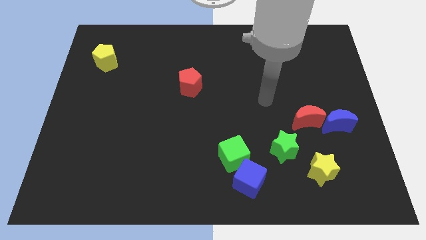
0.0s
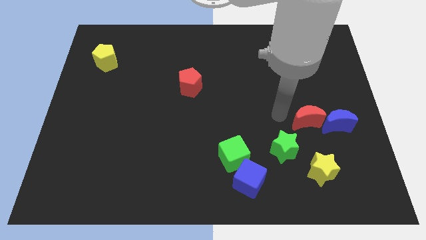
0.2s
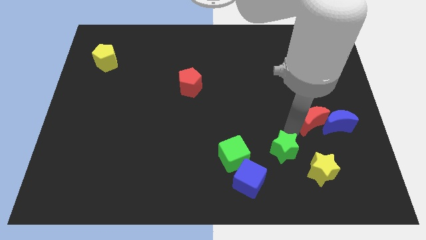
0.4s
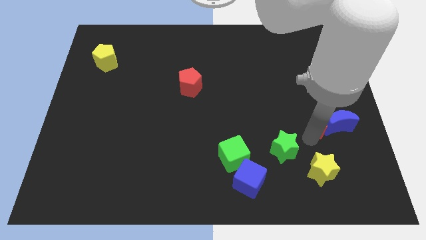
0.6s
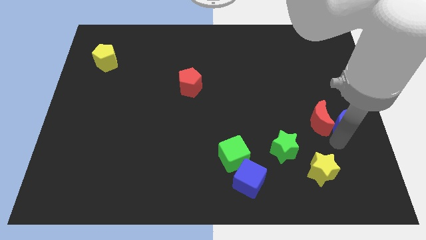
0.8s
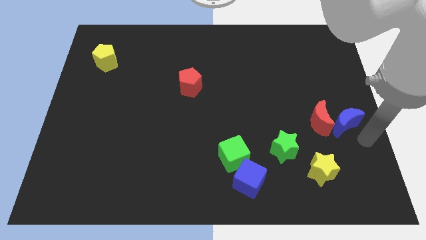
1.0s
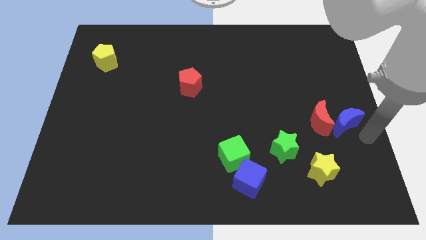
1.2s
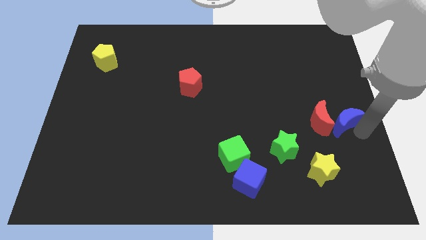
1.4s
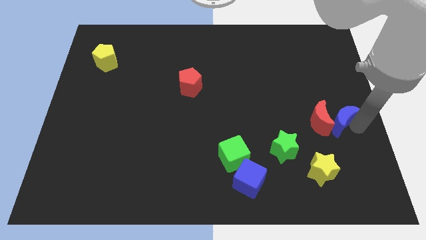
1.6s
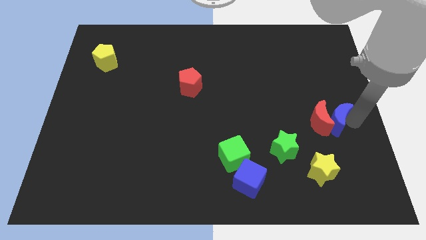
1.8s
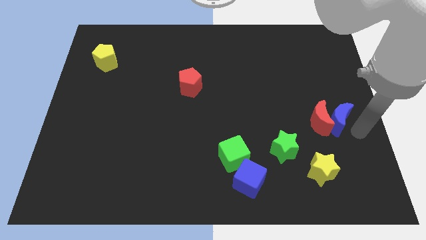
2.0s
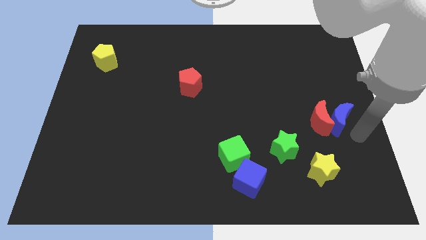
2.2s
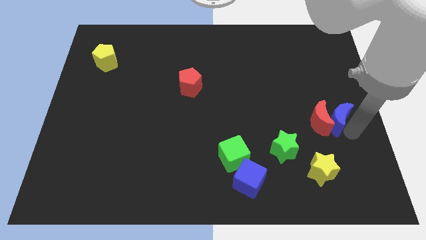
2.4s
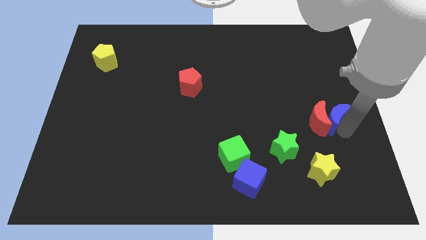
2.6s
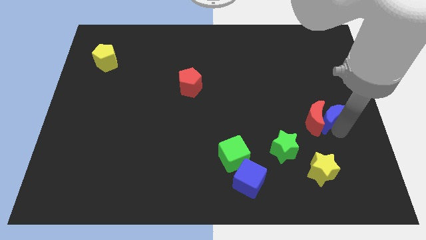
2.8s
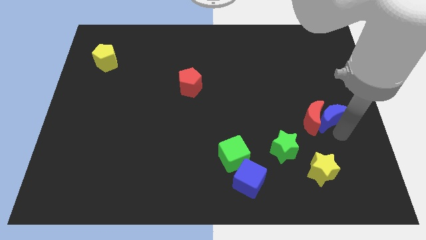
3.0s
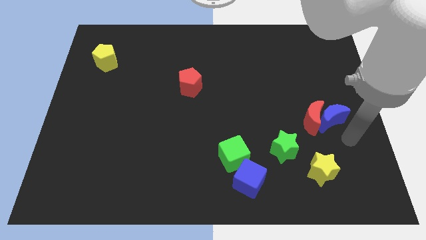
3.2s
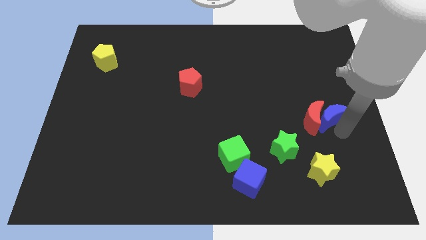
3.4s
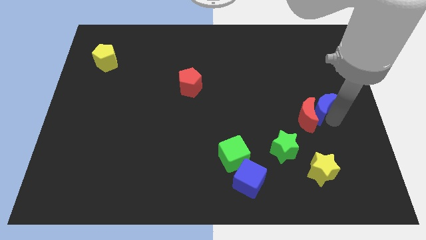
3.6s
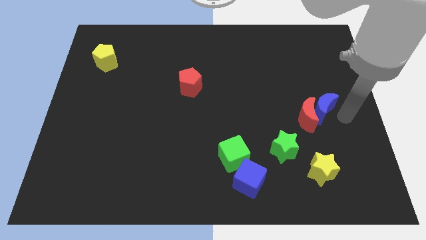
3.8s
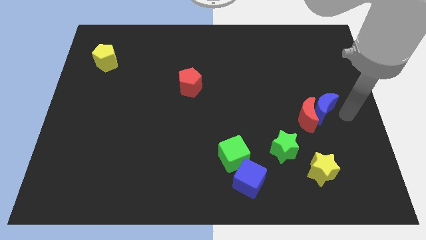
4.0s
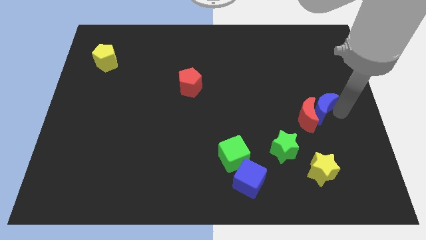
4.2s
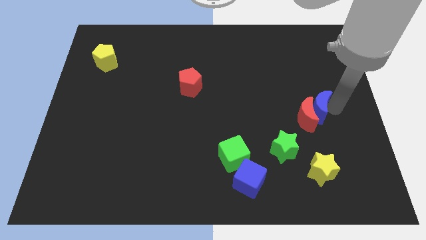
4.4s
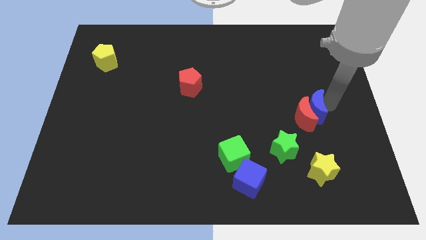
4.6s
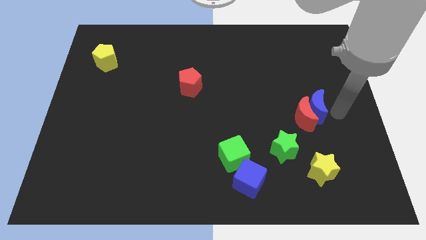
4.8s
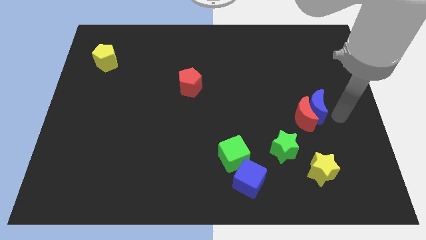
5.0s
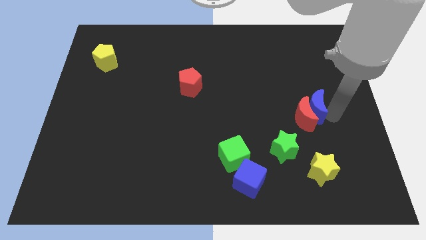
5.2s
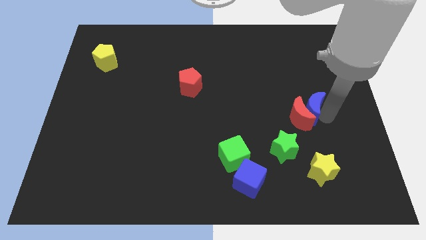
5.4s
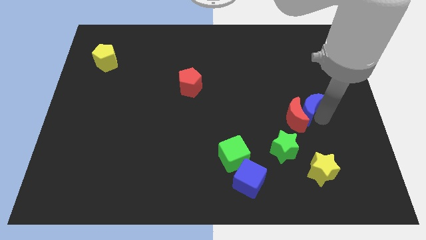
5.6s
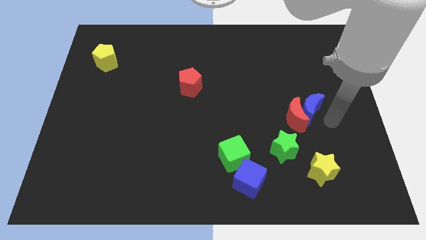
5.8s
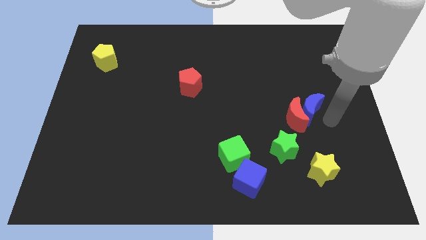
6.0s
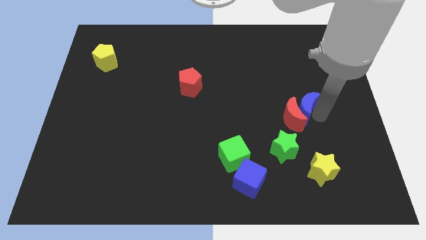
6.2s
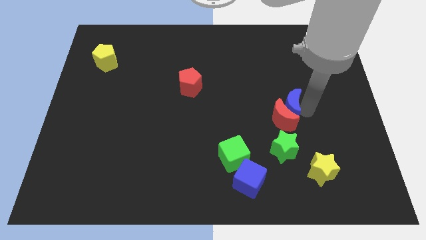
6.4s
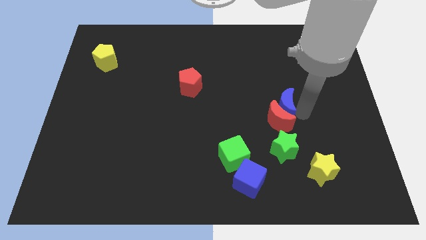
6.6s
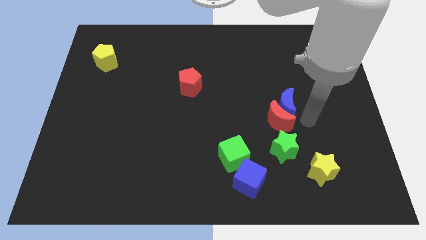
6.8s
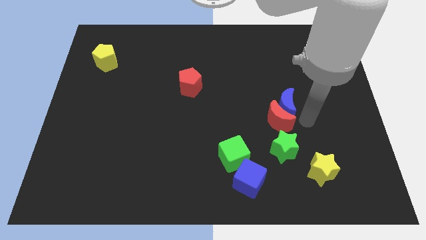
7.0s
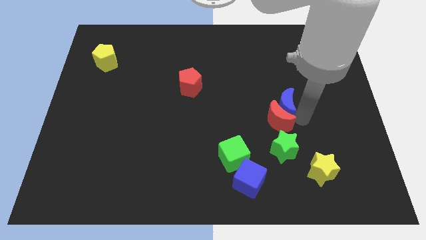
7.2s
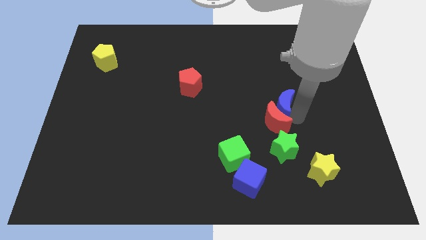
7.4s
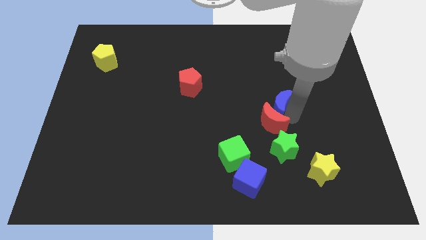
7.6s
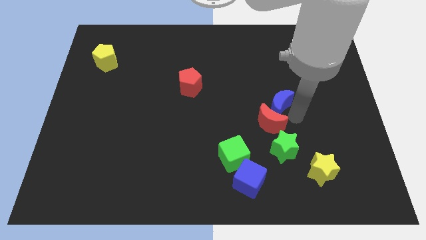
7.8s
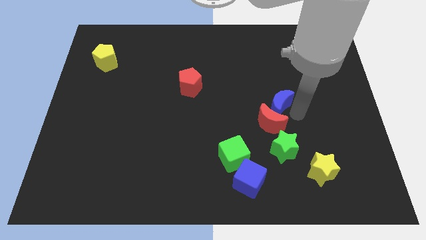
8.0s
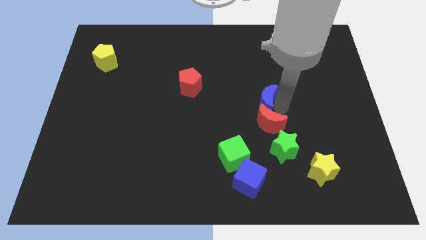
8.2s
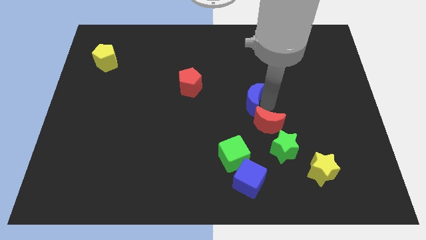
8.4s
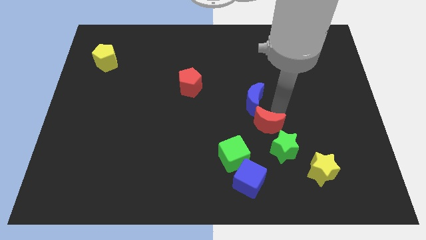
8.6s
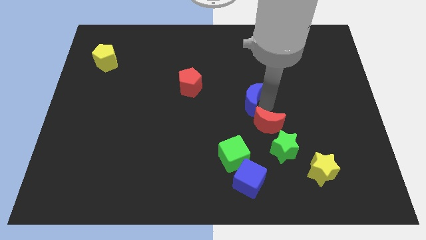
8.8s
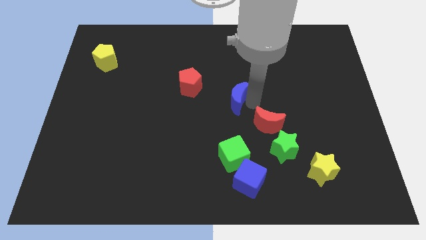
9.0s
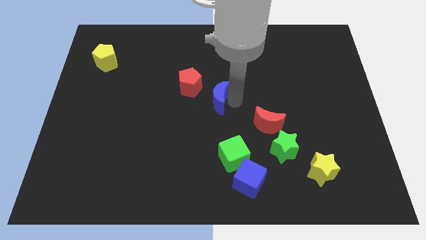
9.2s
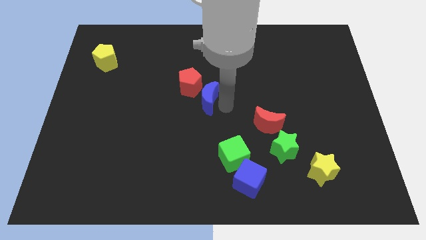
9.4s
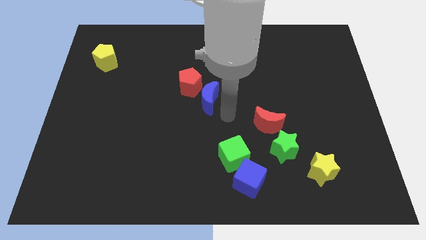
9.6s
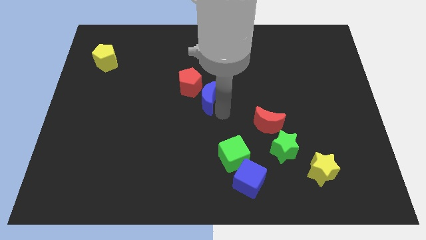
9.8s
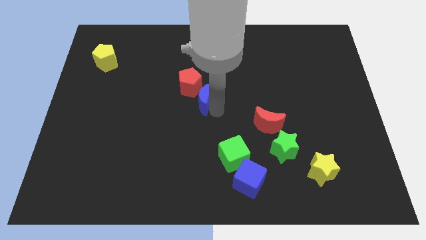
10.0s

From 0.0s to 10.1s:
move the blue moon next to the red pentagon

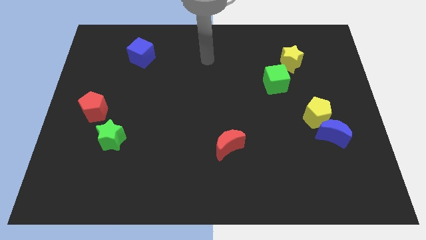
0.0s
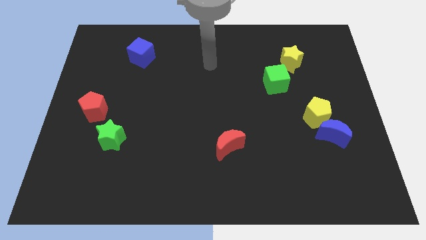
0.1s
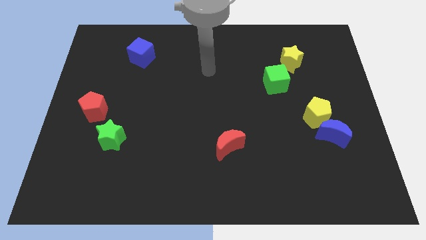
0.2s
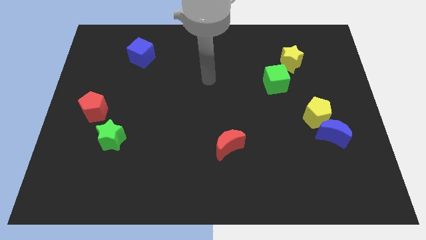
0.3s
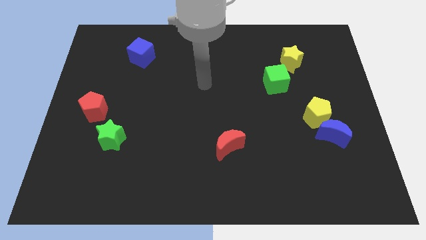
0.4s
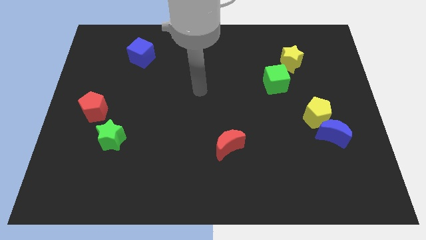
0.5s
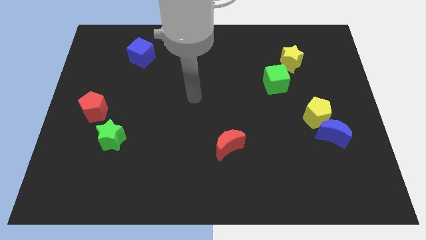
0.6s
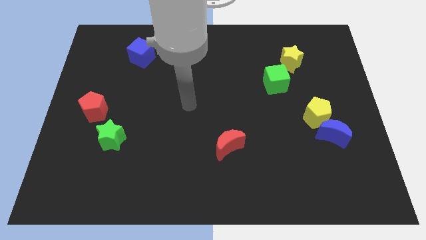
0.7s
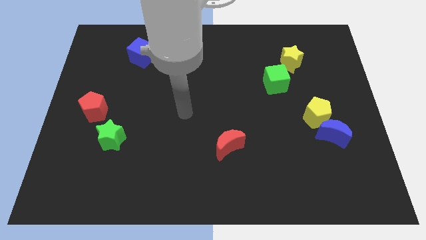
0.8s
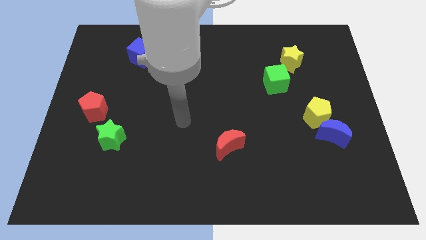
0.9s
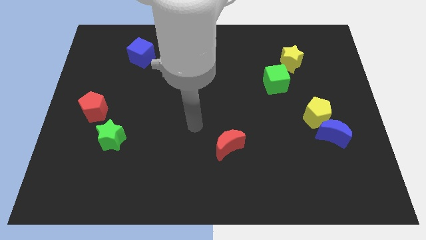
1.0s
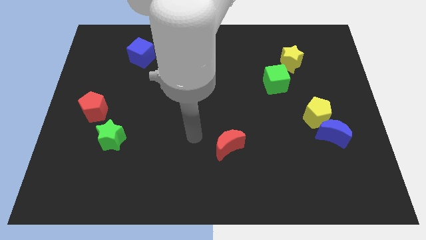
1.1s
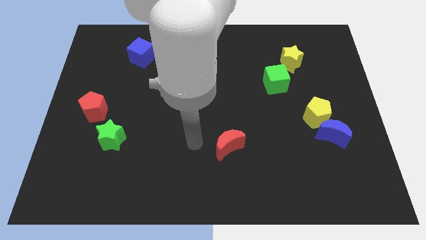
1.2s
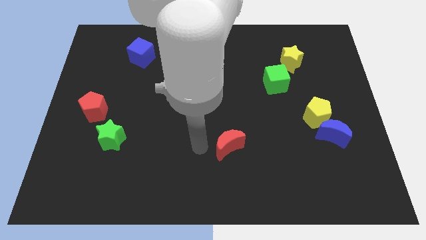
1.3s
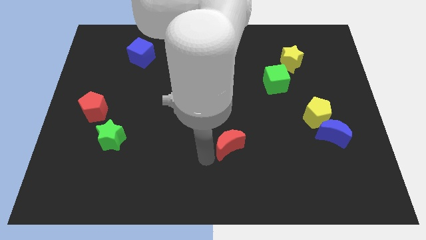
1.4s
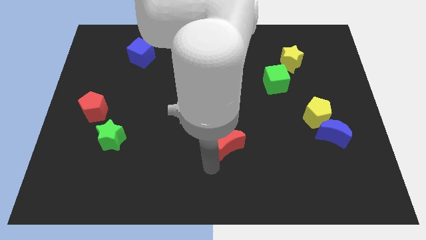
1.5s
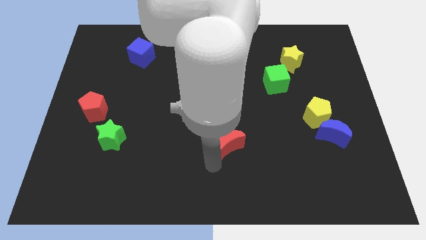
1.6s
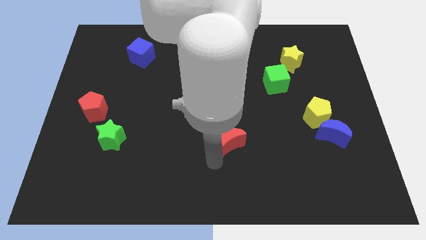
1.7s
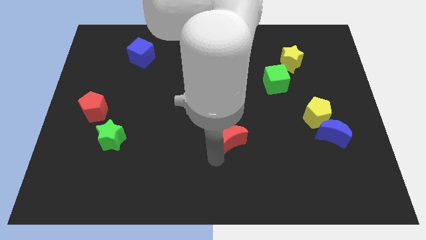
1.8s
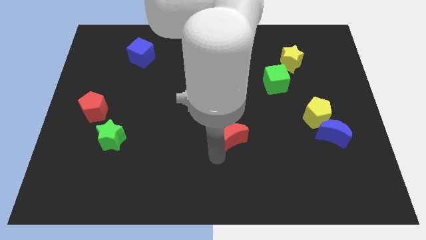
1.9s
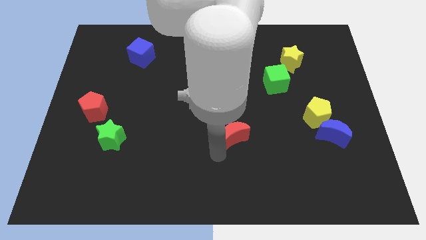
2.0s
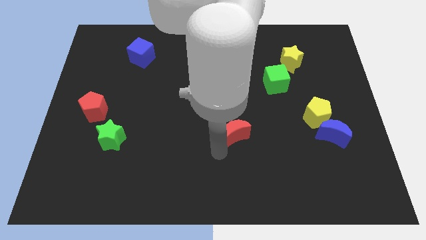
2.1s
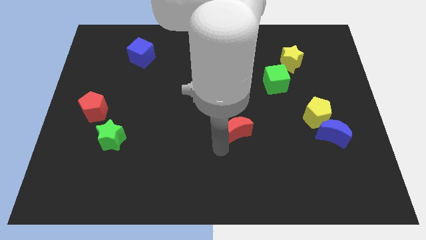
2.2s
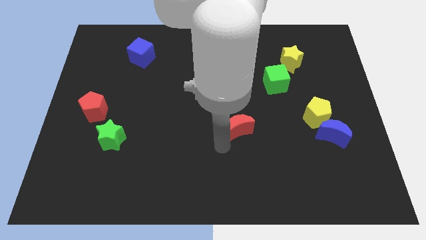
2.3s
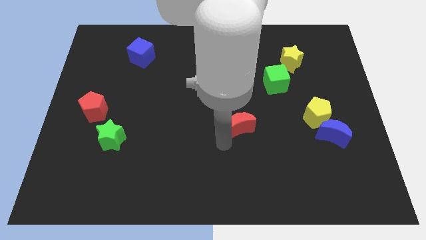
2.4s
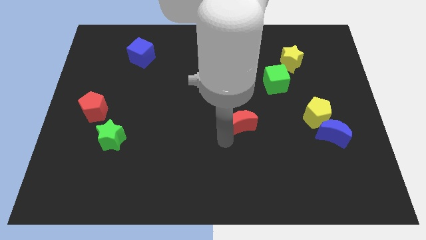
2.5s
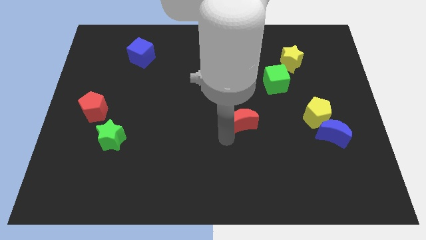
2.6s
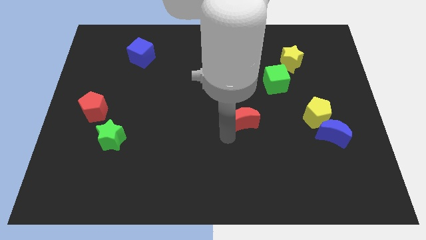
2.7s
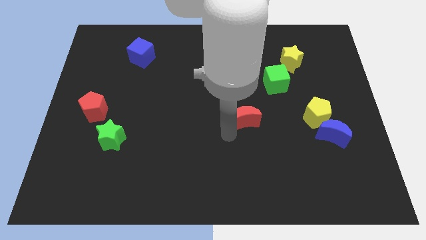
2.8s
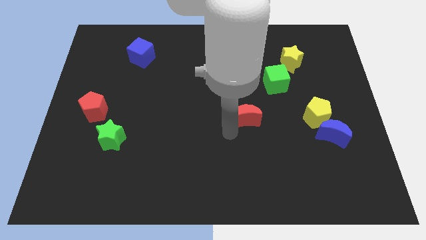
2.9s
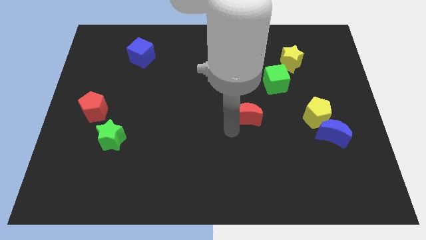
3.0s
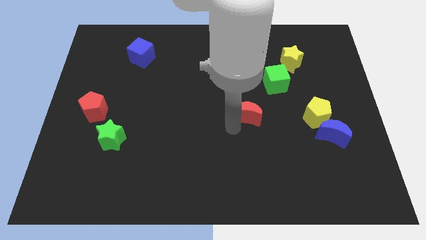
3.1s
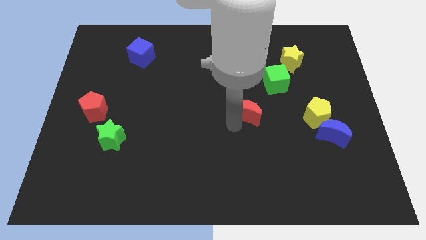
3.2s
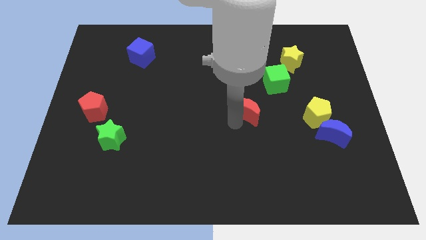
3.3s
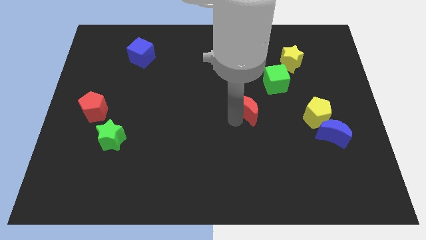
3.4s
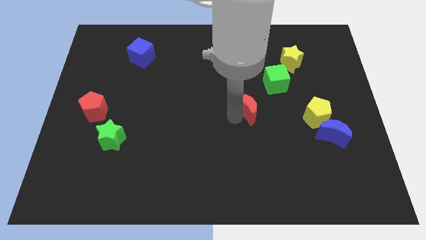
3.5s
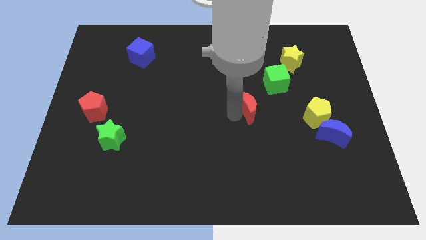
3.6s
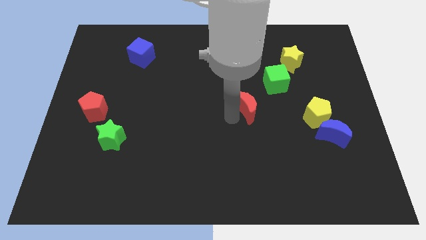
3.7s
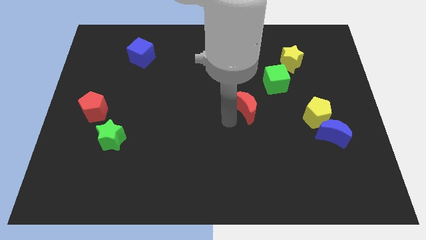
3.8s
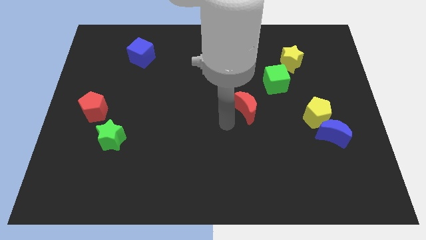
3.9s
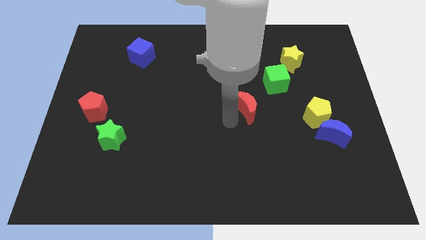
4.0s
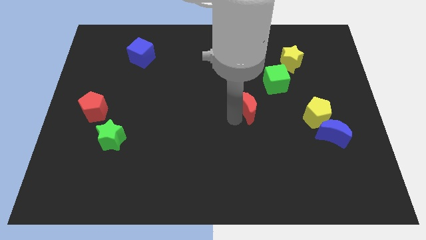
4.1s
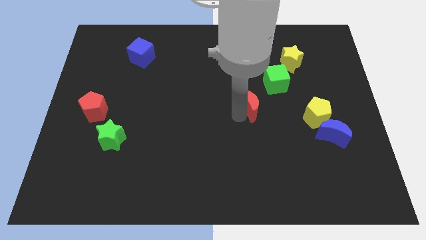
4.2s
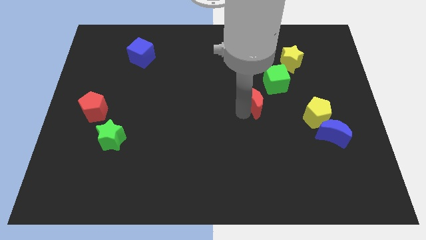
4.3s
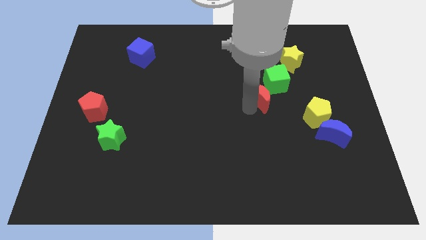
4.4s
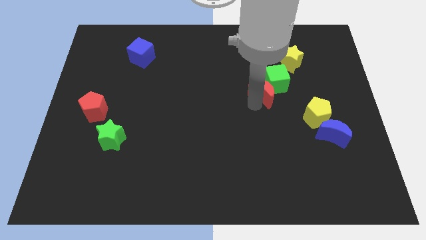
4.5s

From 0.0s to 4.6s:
push the red moon close to the green cube
